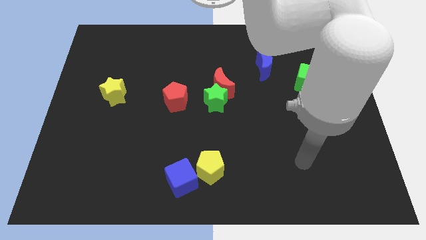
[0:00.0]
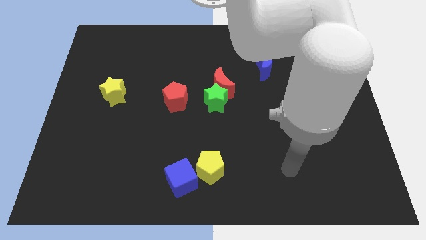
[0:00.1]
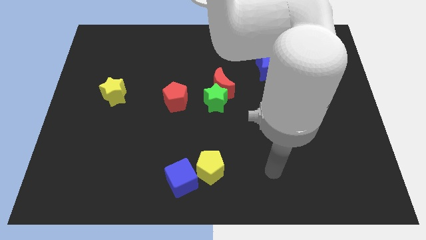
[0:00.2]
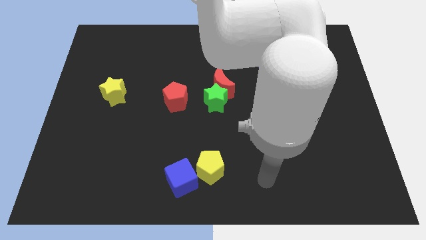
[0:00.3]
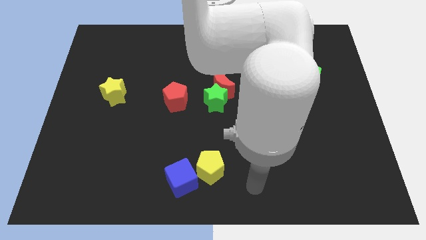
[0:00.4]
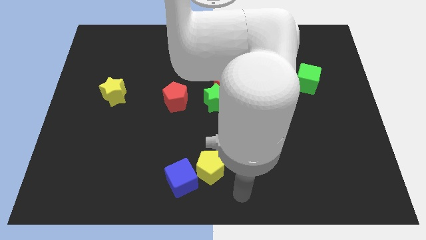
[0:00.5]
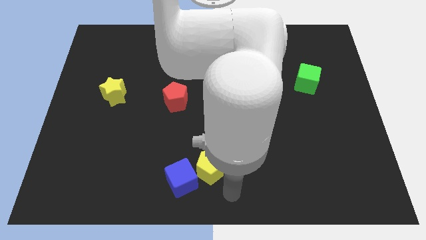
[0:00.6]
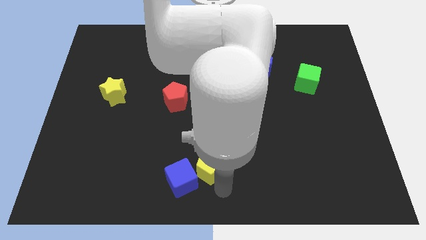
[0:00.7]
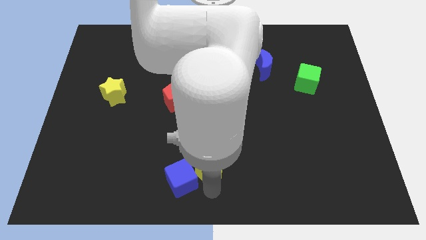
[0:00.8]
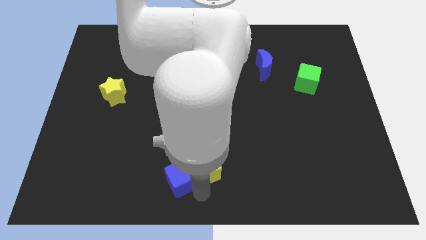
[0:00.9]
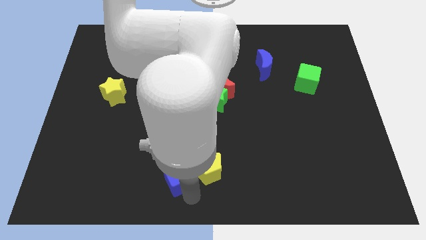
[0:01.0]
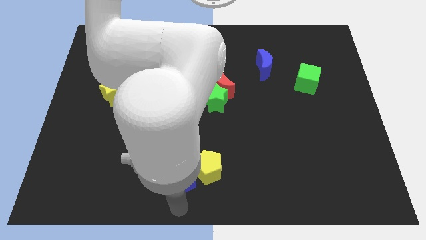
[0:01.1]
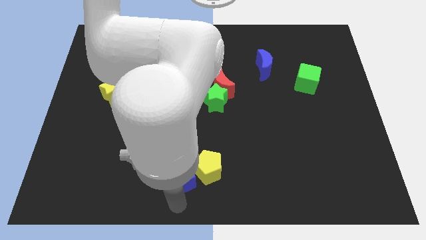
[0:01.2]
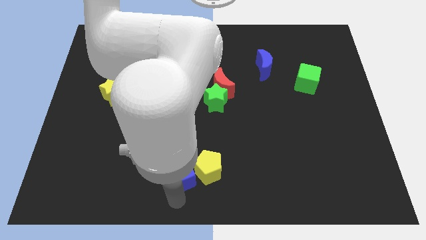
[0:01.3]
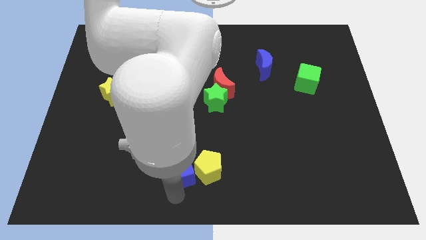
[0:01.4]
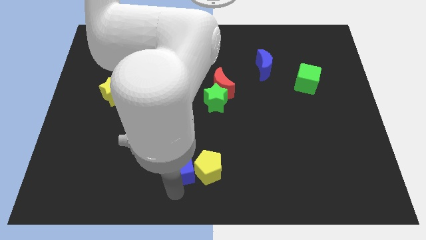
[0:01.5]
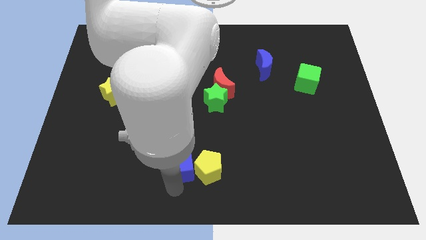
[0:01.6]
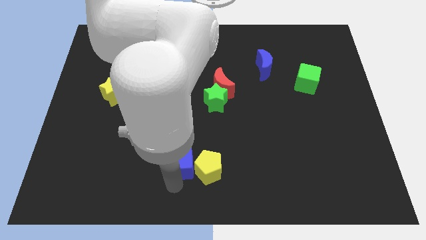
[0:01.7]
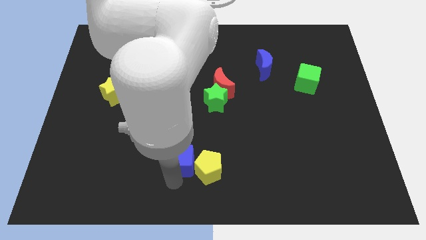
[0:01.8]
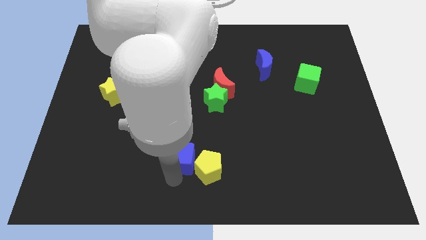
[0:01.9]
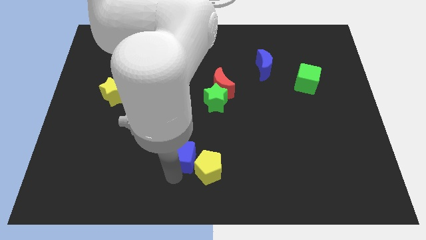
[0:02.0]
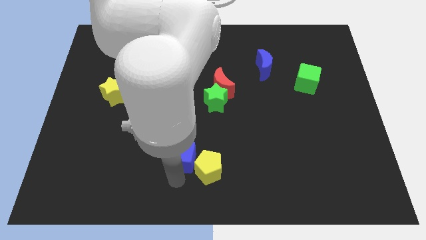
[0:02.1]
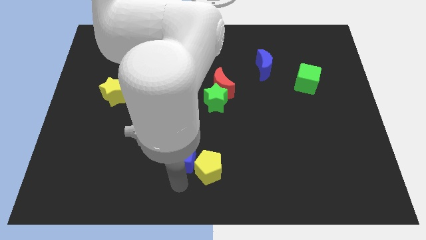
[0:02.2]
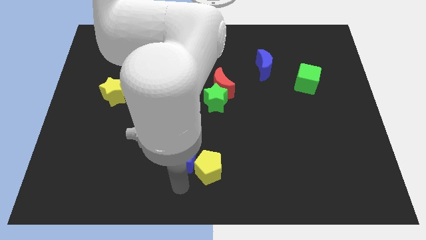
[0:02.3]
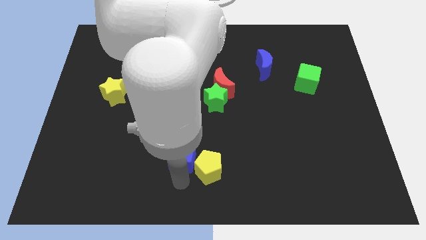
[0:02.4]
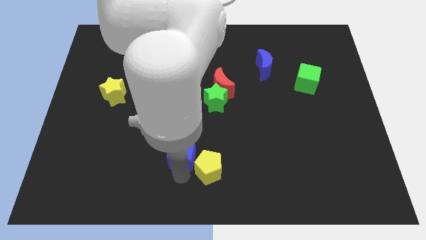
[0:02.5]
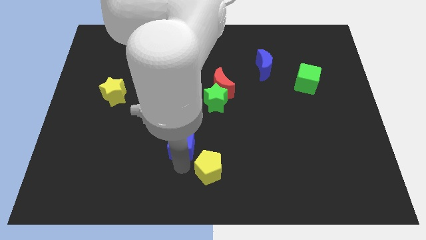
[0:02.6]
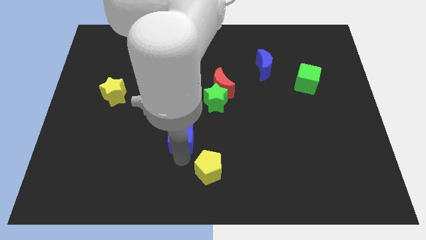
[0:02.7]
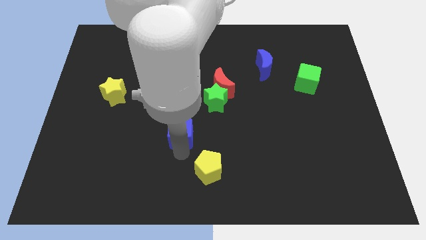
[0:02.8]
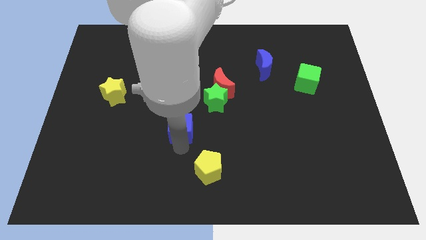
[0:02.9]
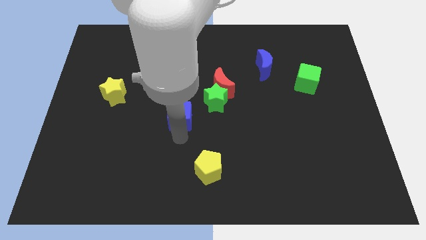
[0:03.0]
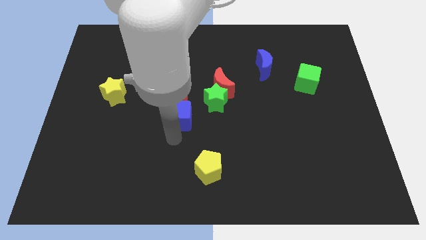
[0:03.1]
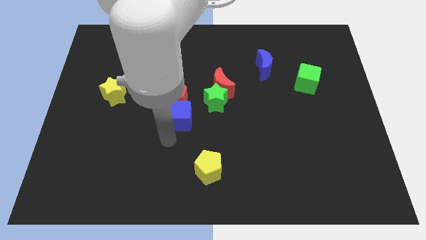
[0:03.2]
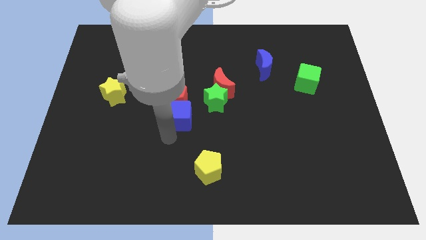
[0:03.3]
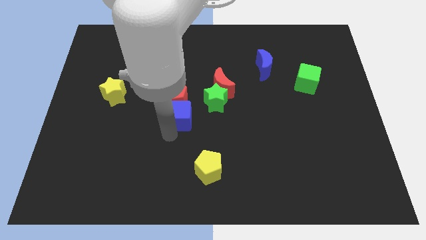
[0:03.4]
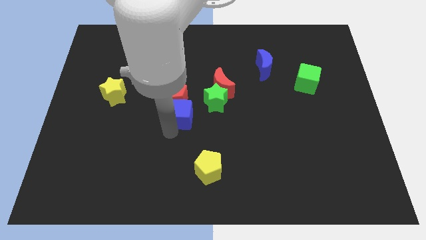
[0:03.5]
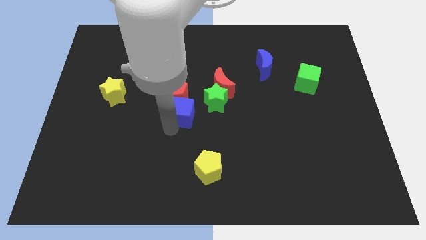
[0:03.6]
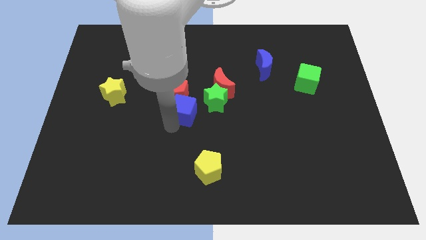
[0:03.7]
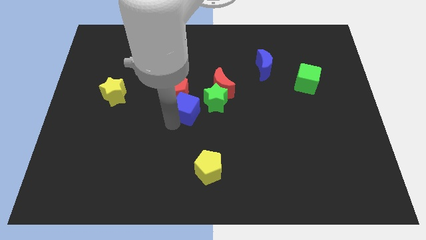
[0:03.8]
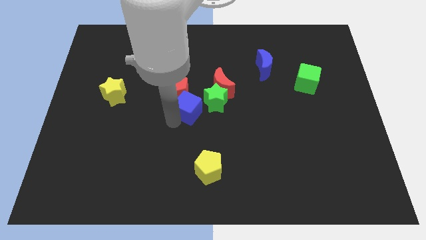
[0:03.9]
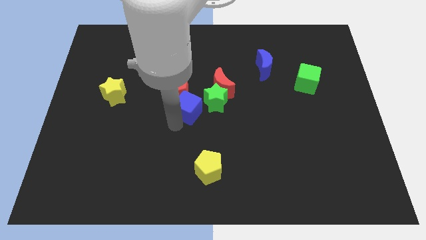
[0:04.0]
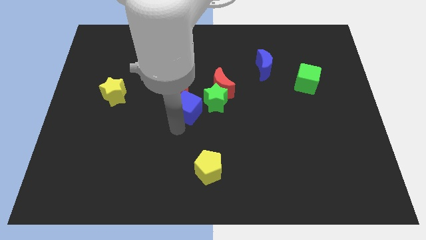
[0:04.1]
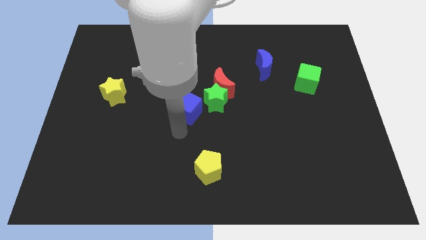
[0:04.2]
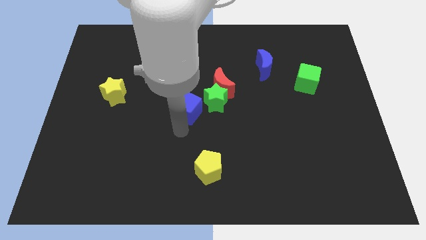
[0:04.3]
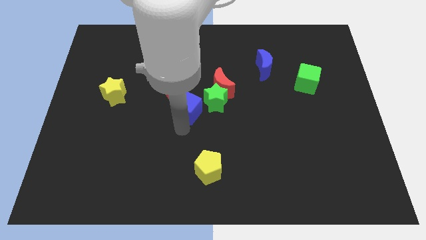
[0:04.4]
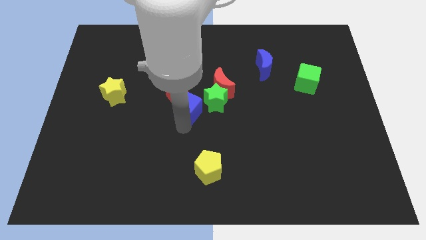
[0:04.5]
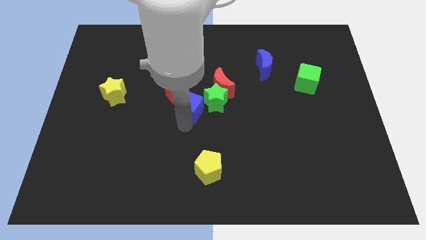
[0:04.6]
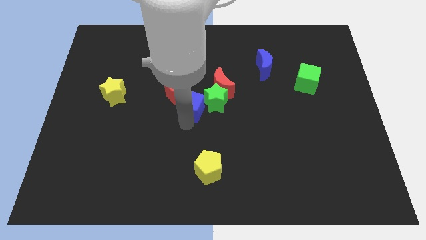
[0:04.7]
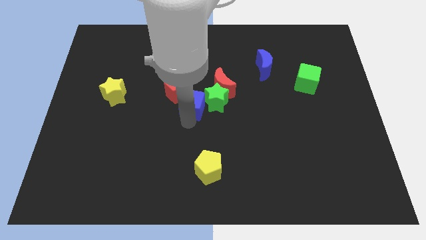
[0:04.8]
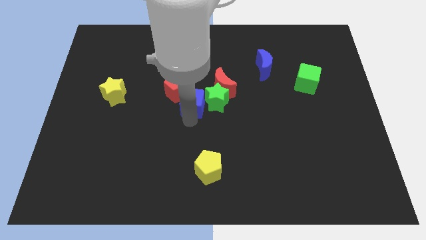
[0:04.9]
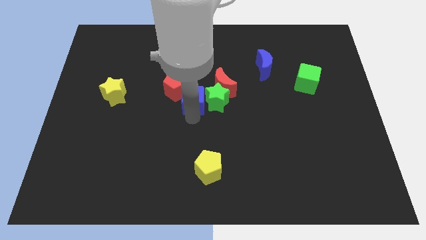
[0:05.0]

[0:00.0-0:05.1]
push the blue cube up

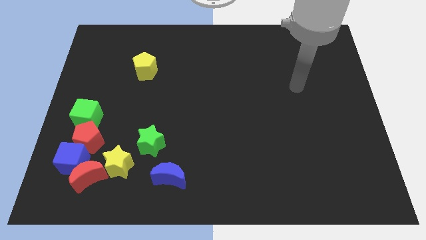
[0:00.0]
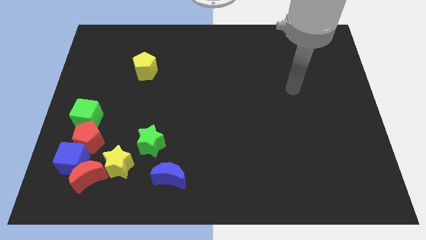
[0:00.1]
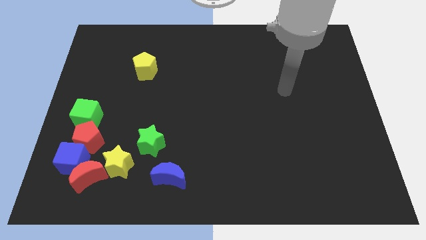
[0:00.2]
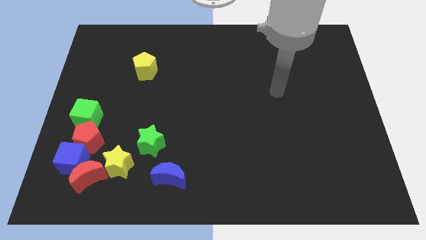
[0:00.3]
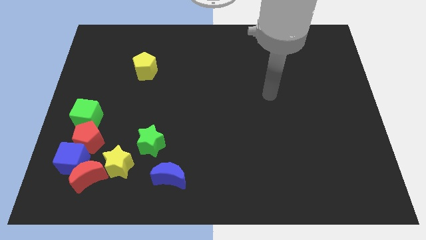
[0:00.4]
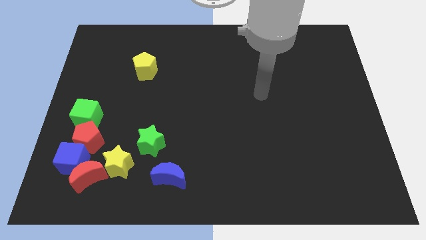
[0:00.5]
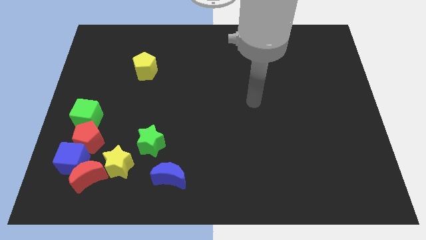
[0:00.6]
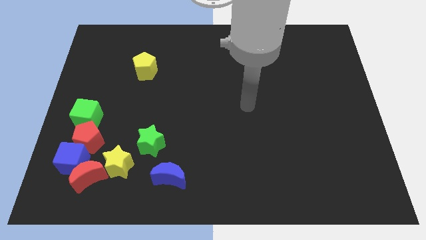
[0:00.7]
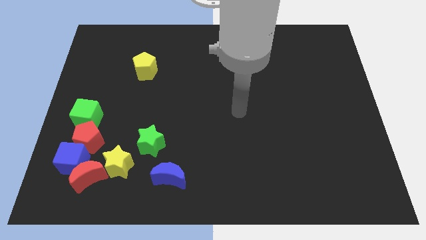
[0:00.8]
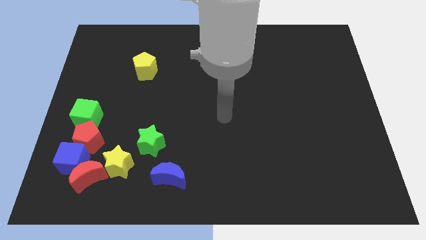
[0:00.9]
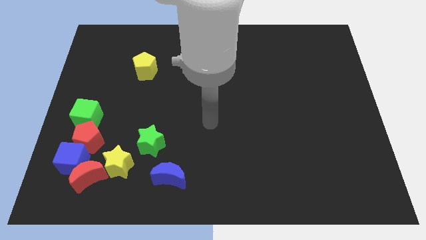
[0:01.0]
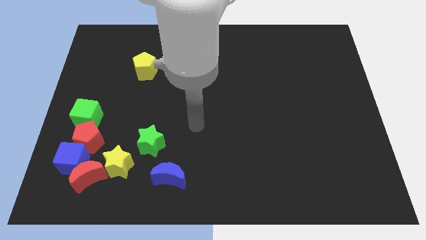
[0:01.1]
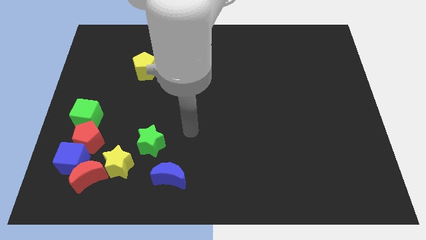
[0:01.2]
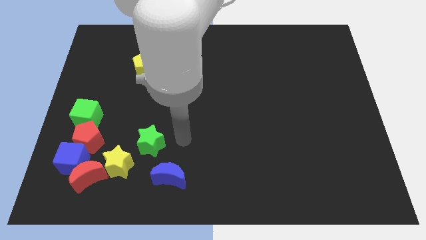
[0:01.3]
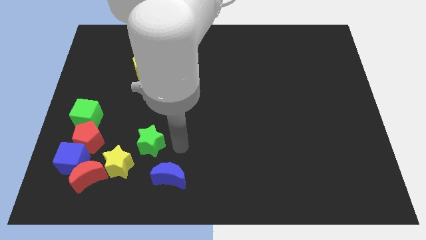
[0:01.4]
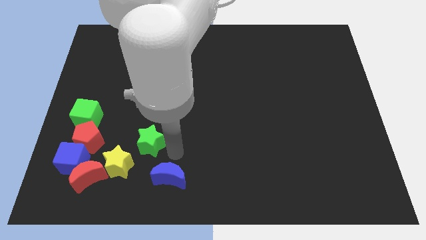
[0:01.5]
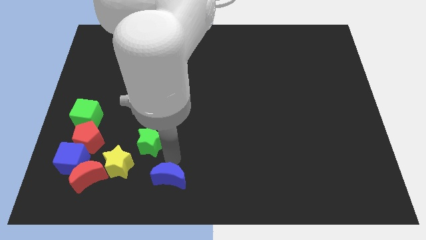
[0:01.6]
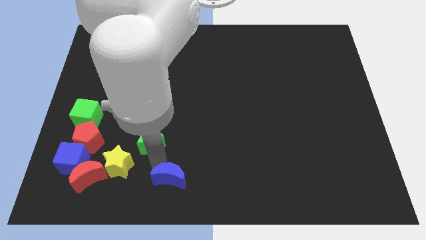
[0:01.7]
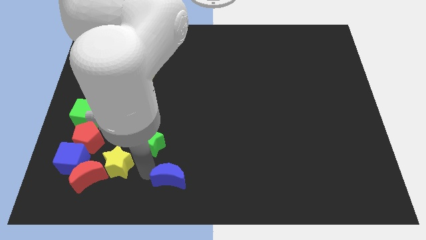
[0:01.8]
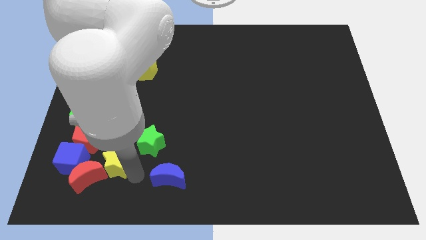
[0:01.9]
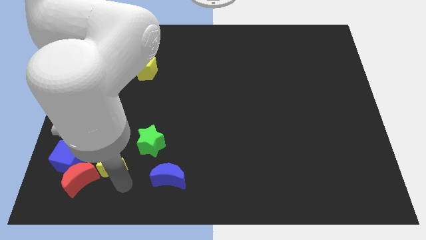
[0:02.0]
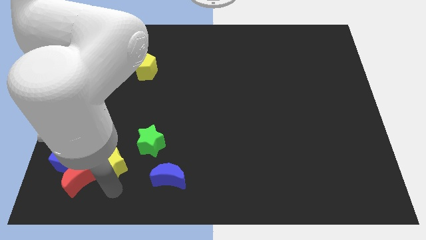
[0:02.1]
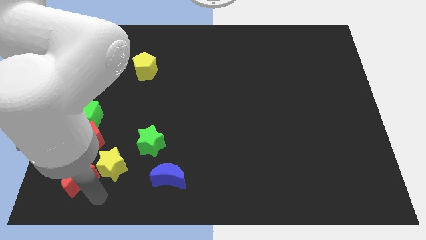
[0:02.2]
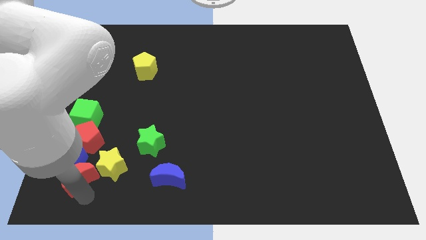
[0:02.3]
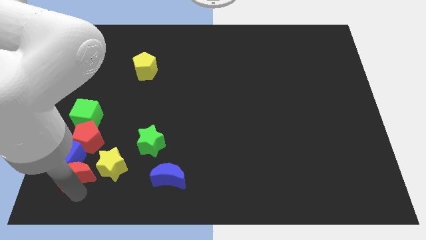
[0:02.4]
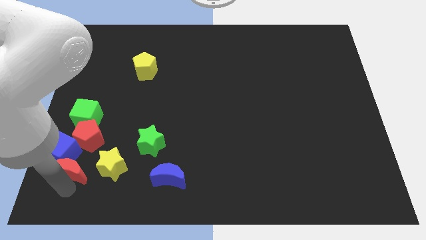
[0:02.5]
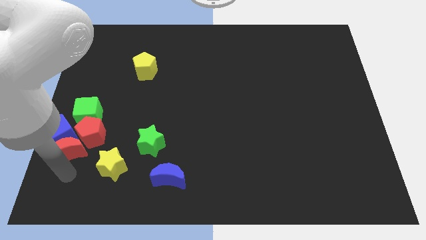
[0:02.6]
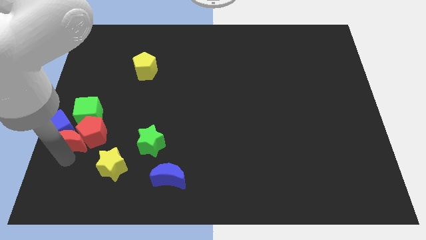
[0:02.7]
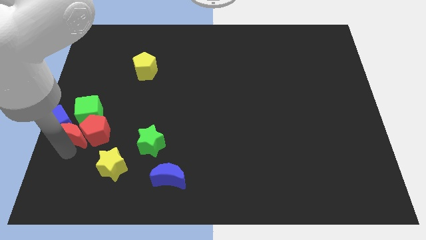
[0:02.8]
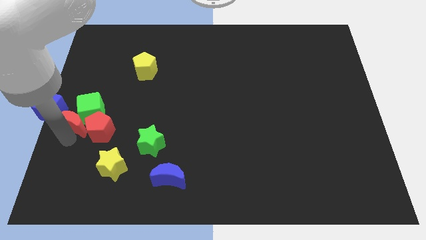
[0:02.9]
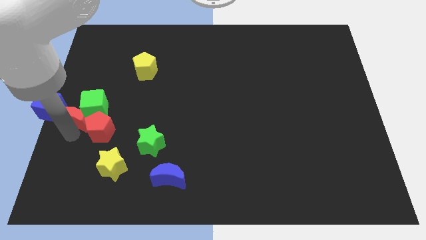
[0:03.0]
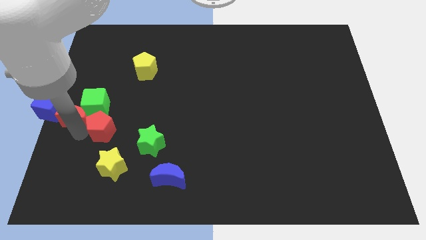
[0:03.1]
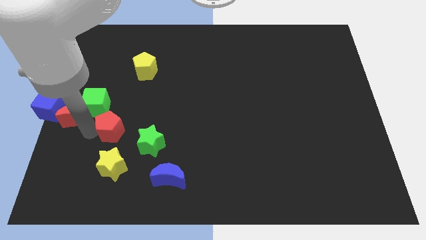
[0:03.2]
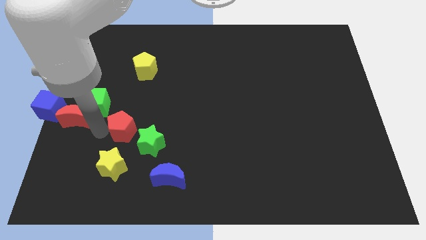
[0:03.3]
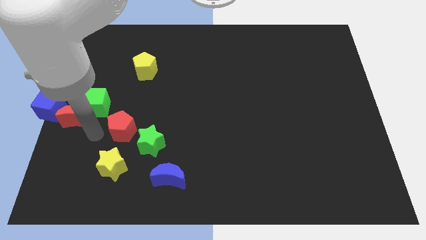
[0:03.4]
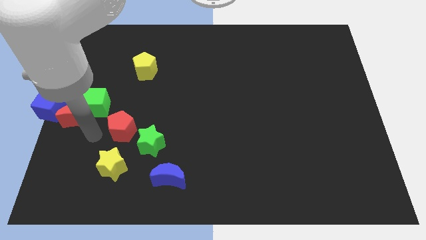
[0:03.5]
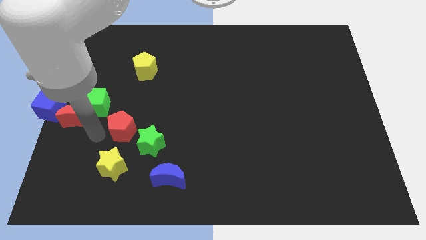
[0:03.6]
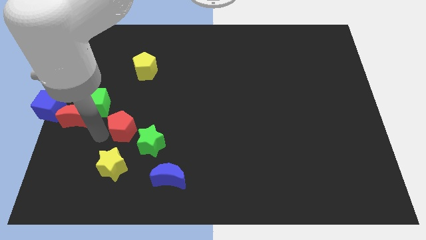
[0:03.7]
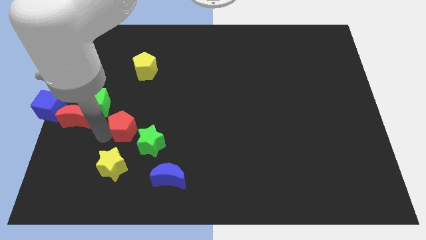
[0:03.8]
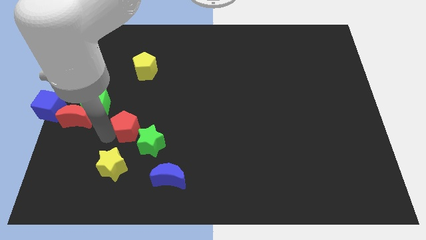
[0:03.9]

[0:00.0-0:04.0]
push the red pentagon to the right a bit
